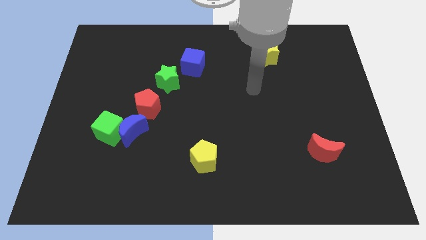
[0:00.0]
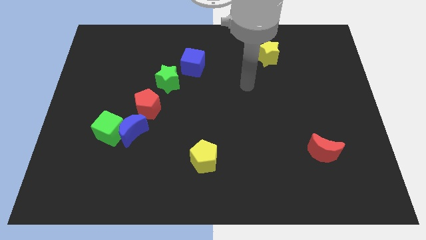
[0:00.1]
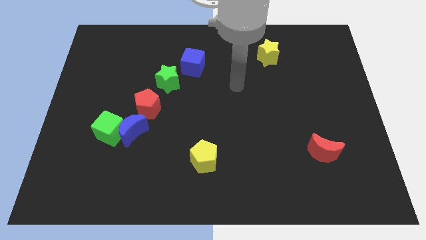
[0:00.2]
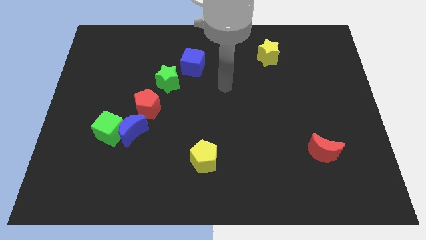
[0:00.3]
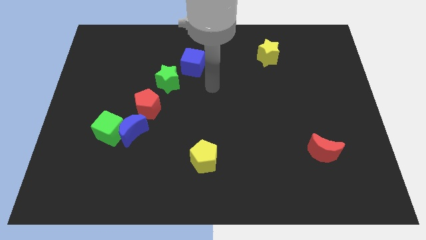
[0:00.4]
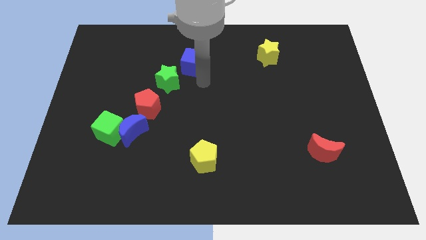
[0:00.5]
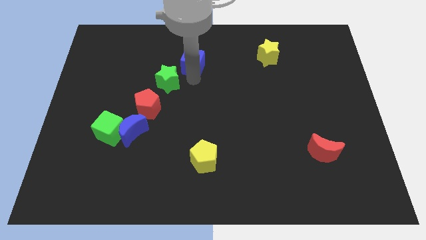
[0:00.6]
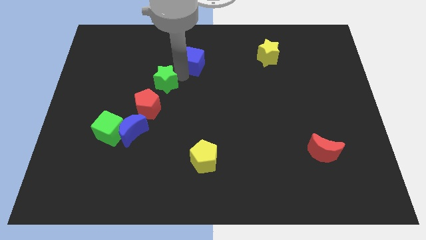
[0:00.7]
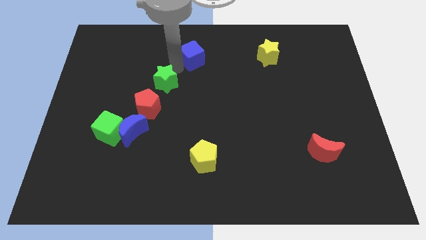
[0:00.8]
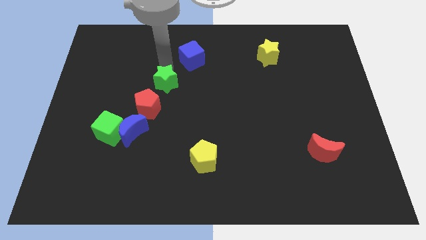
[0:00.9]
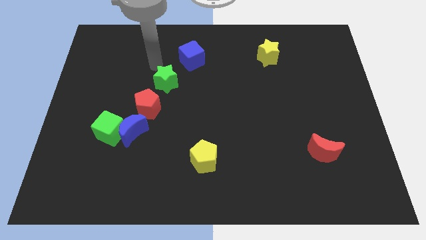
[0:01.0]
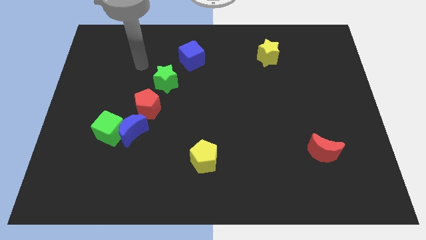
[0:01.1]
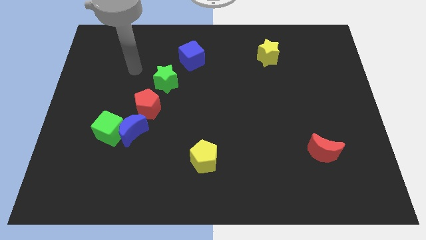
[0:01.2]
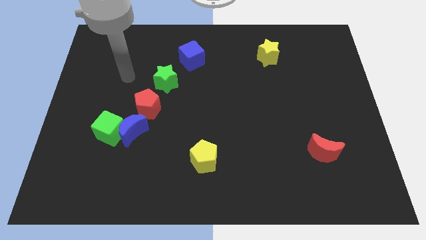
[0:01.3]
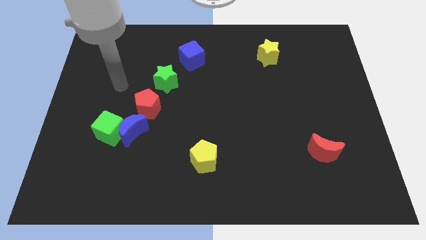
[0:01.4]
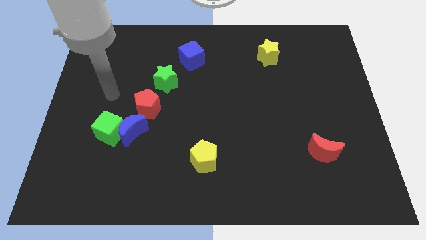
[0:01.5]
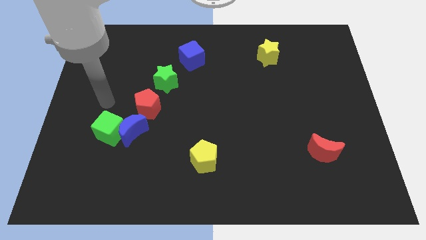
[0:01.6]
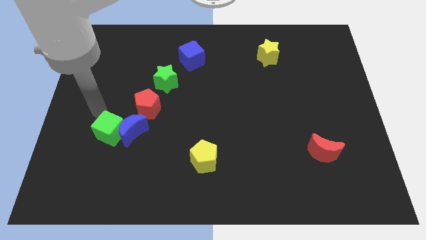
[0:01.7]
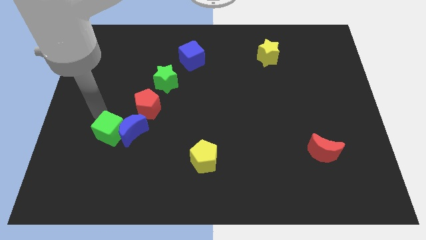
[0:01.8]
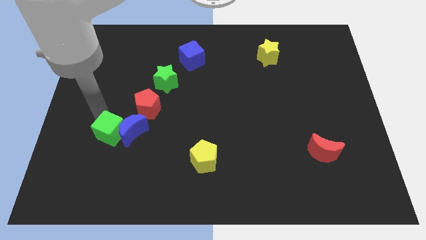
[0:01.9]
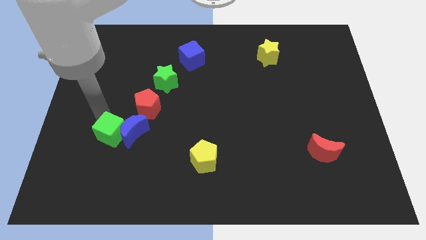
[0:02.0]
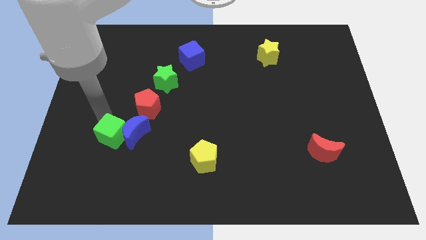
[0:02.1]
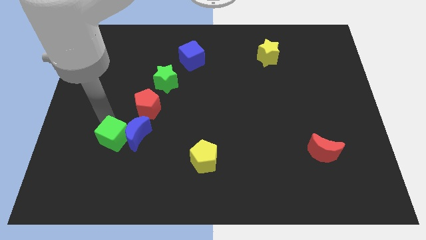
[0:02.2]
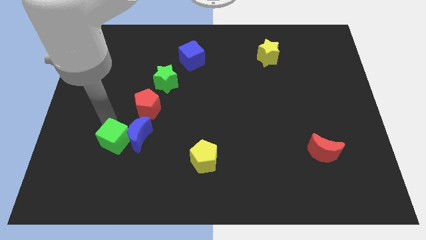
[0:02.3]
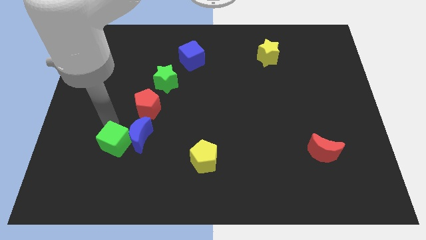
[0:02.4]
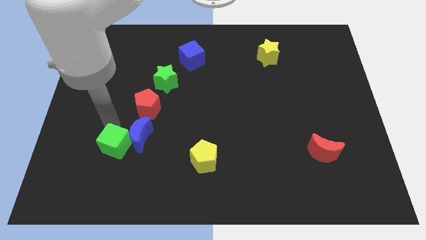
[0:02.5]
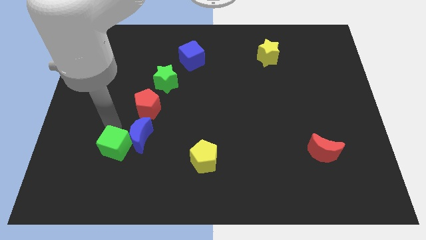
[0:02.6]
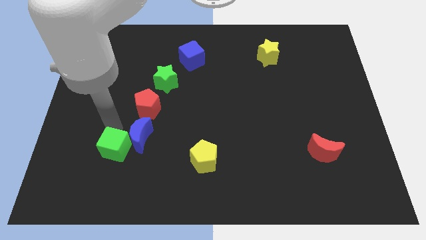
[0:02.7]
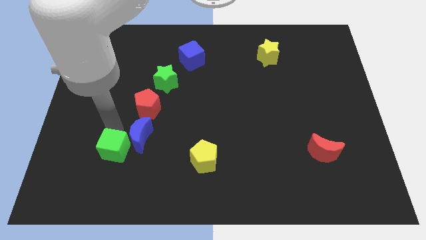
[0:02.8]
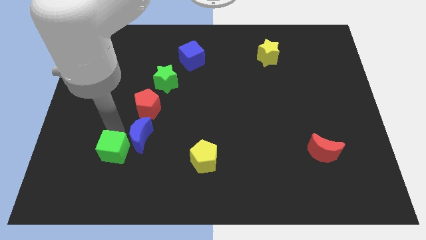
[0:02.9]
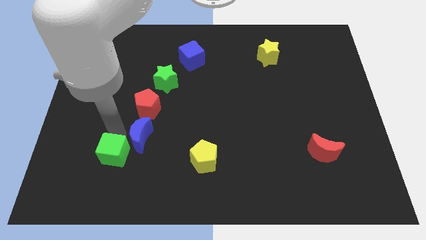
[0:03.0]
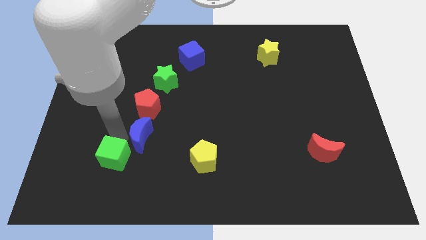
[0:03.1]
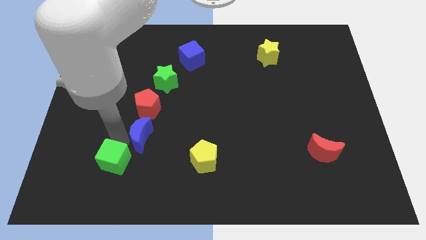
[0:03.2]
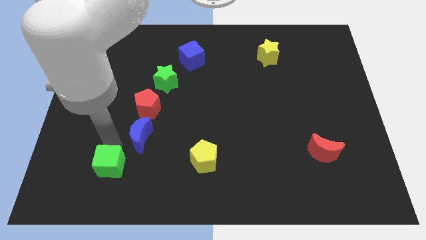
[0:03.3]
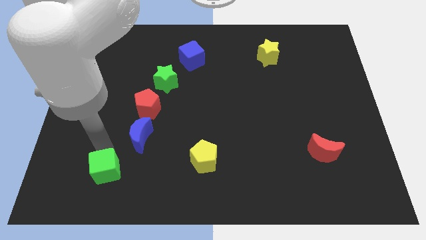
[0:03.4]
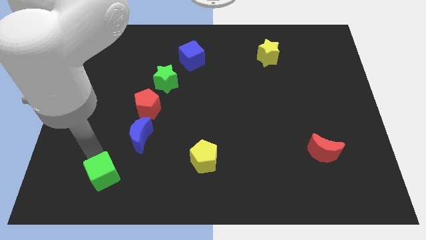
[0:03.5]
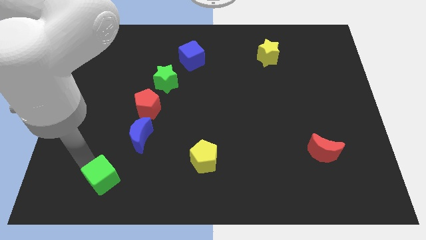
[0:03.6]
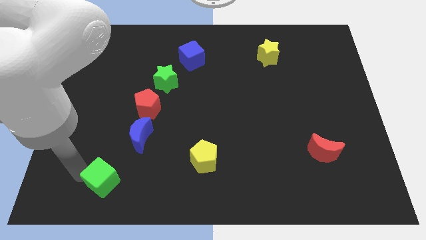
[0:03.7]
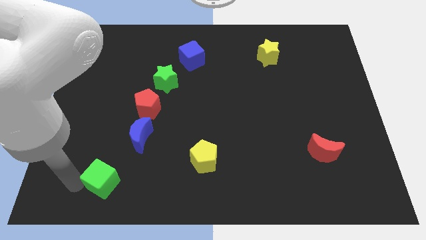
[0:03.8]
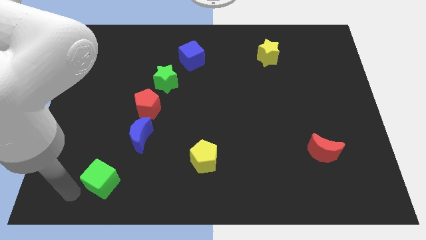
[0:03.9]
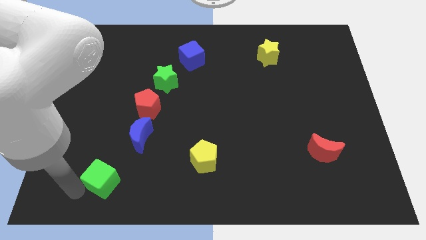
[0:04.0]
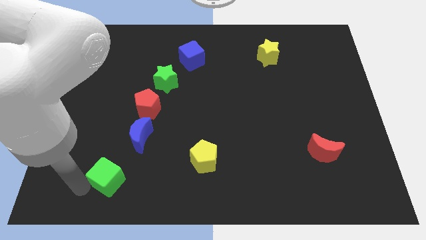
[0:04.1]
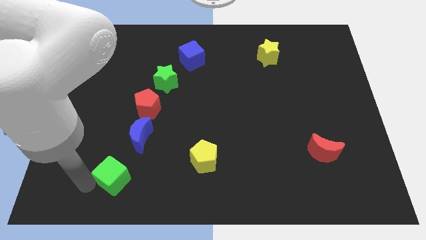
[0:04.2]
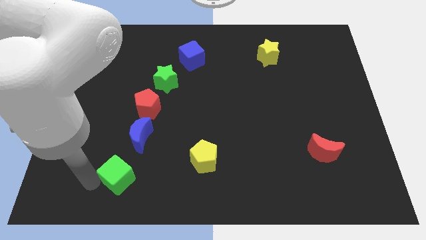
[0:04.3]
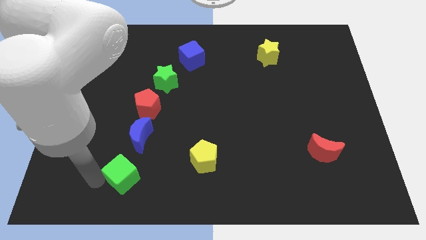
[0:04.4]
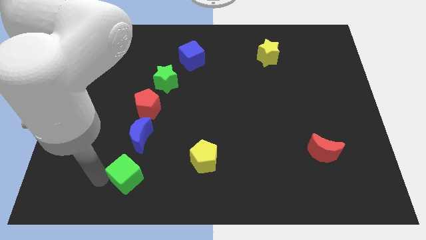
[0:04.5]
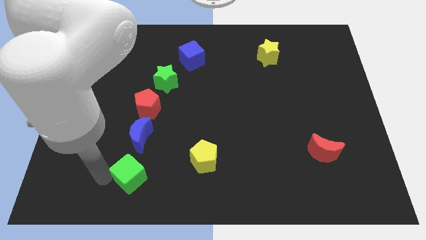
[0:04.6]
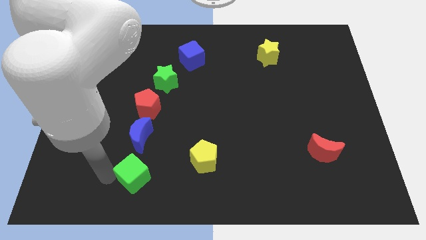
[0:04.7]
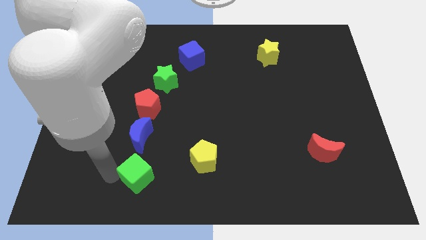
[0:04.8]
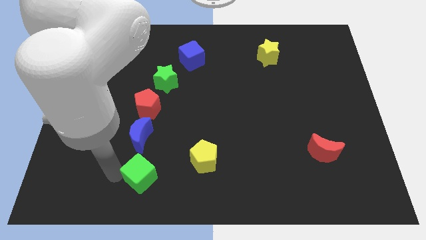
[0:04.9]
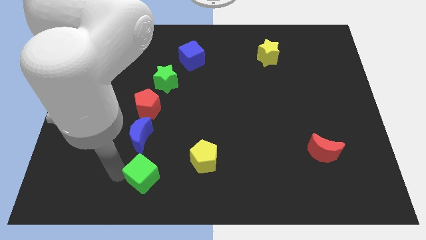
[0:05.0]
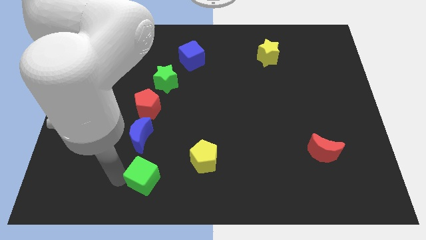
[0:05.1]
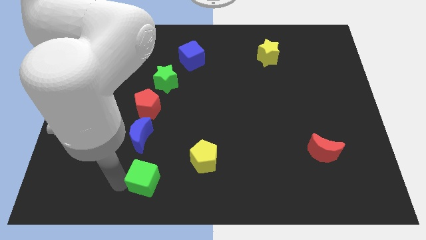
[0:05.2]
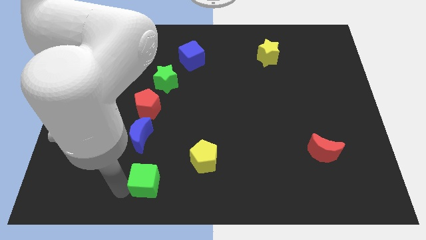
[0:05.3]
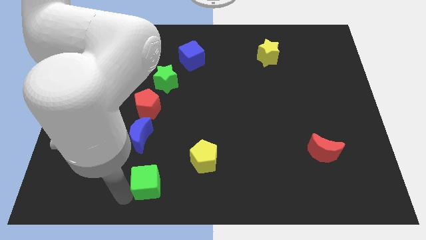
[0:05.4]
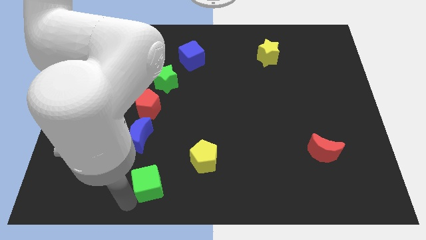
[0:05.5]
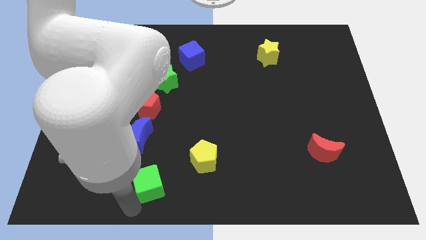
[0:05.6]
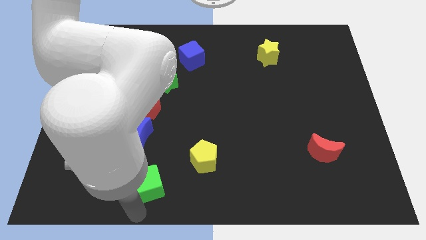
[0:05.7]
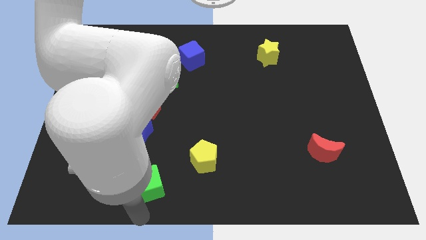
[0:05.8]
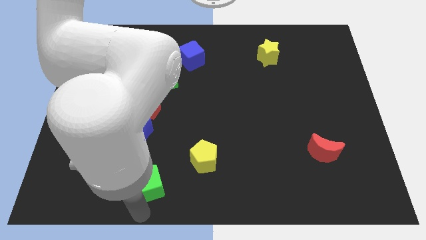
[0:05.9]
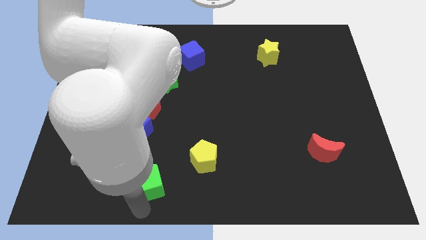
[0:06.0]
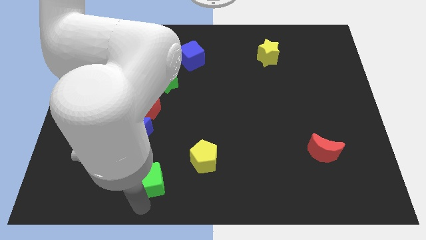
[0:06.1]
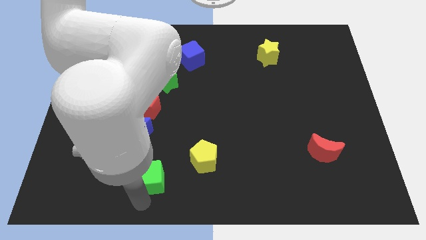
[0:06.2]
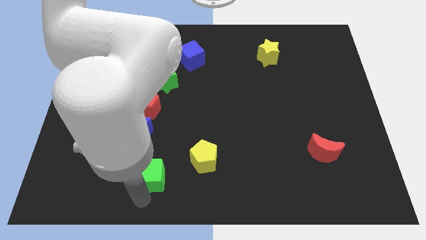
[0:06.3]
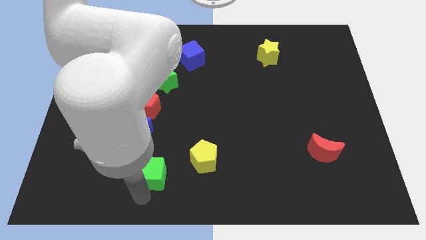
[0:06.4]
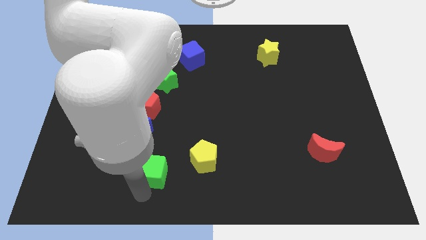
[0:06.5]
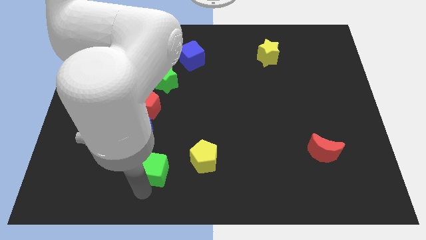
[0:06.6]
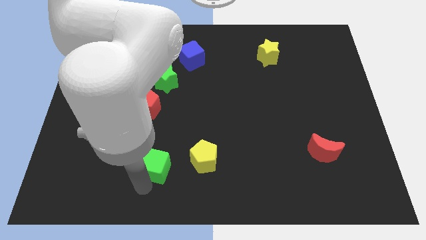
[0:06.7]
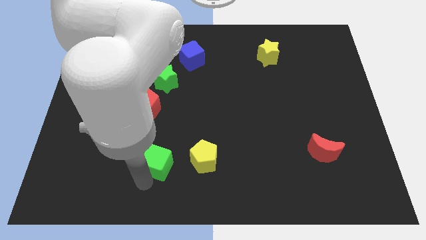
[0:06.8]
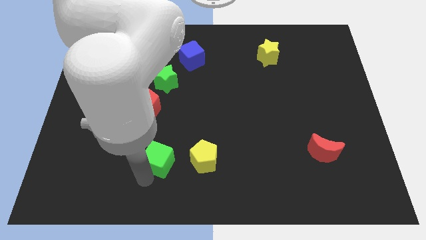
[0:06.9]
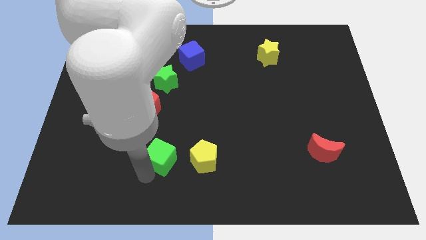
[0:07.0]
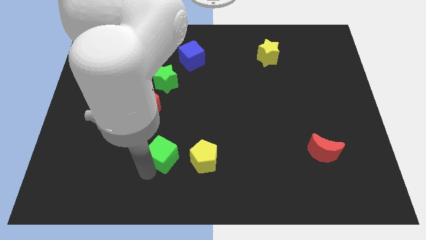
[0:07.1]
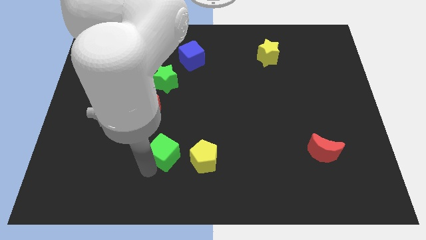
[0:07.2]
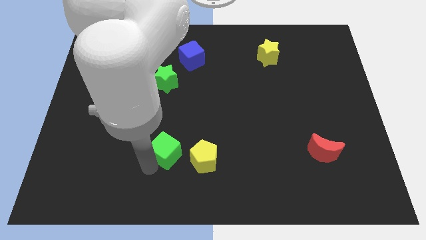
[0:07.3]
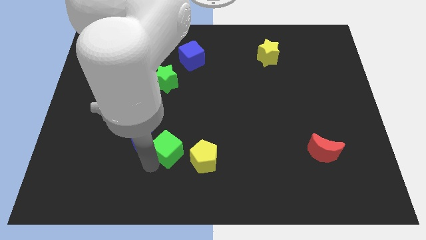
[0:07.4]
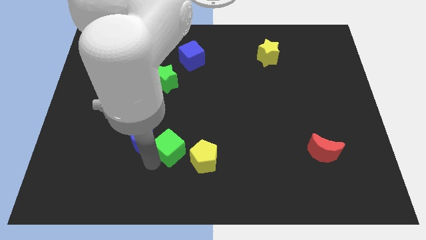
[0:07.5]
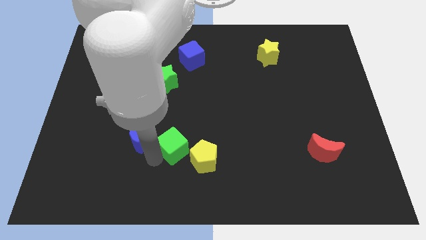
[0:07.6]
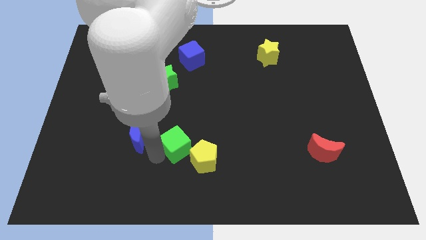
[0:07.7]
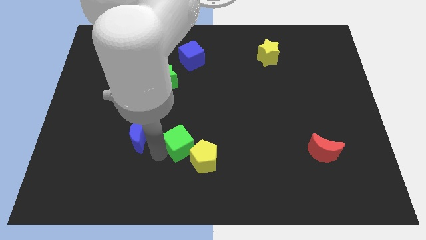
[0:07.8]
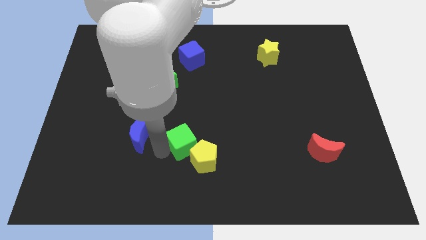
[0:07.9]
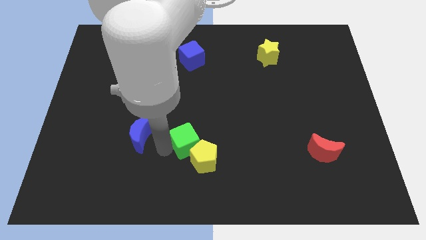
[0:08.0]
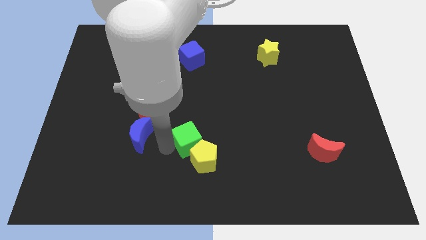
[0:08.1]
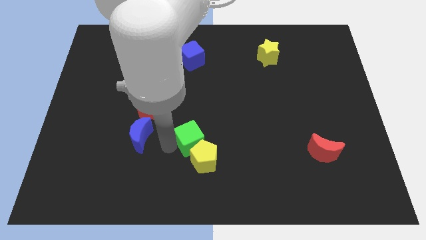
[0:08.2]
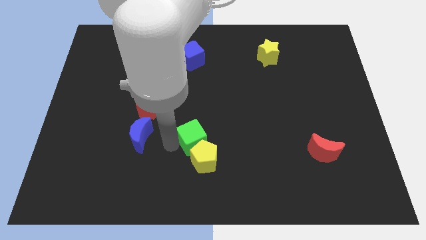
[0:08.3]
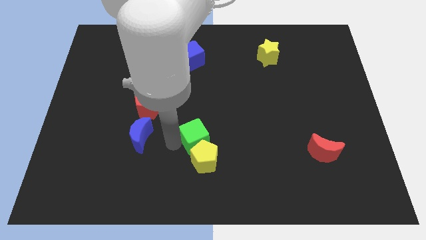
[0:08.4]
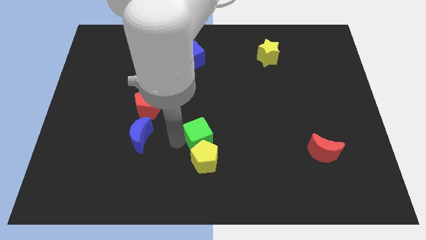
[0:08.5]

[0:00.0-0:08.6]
slide the green cube right
